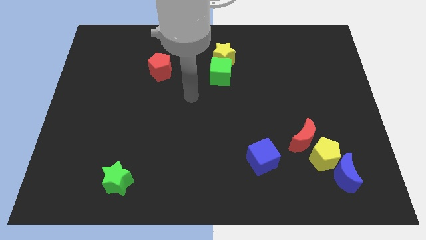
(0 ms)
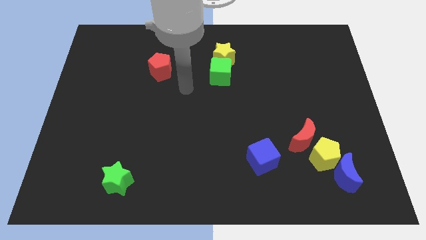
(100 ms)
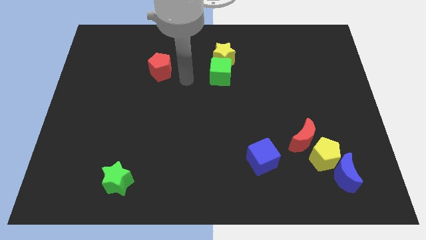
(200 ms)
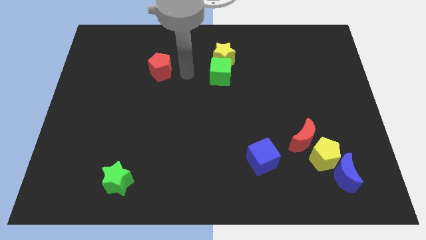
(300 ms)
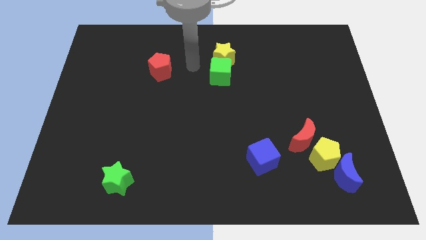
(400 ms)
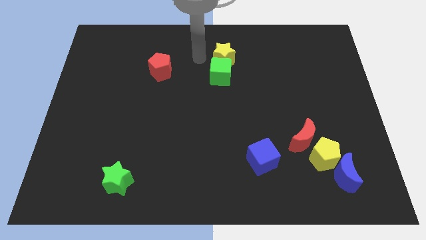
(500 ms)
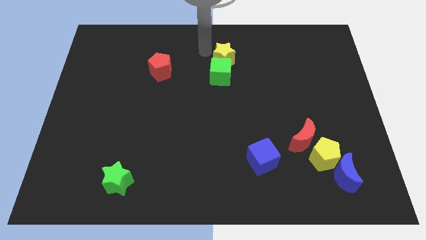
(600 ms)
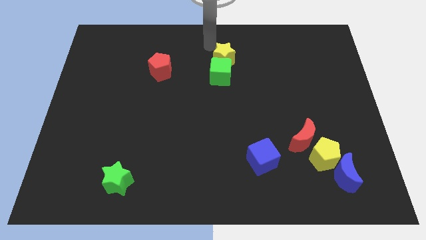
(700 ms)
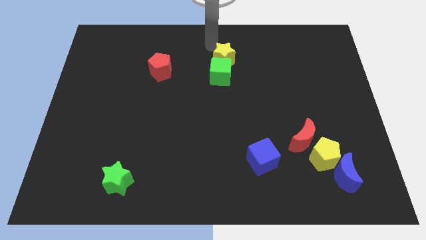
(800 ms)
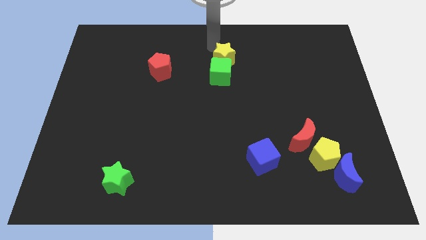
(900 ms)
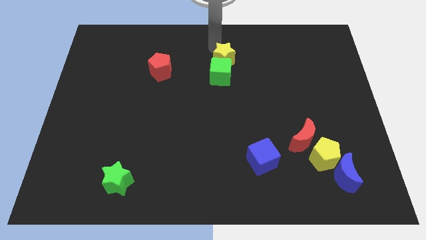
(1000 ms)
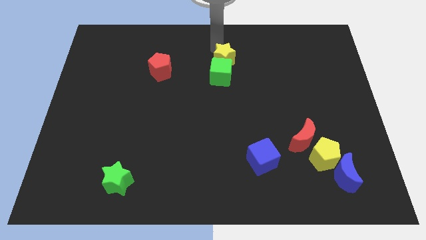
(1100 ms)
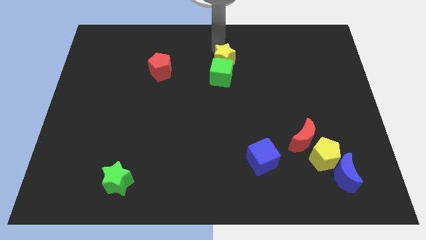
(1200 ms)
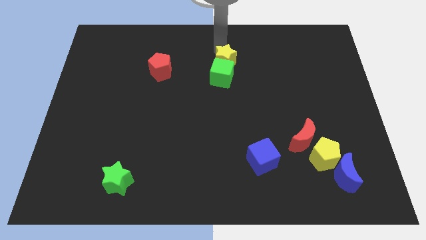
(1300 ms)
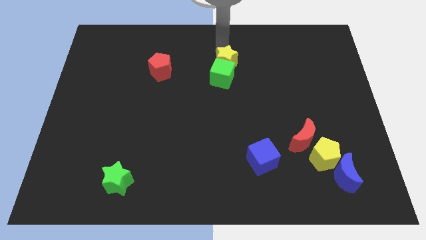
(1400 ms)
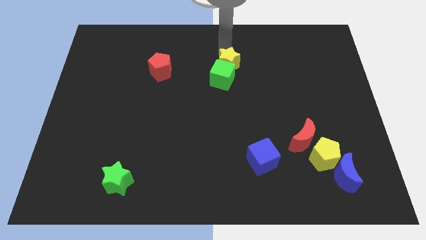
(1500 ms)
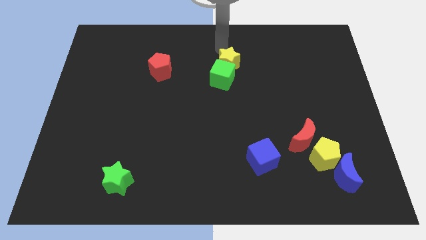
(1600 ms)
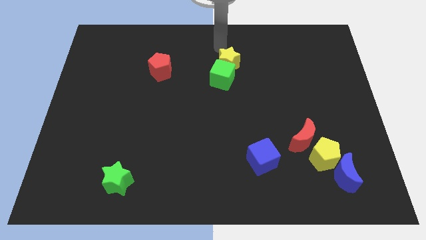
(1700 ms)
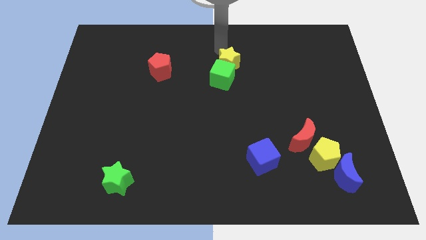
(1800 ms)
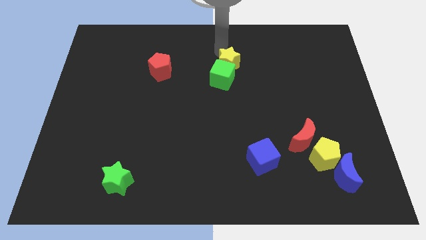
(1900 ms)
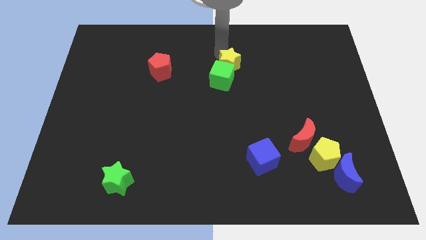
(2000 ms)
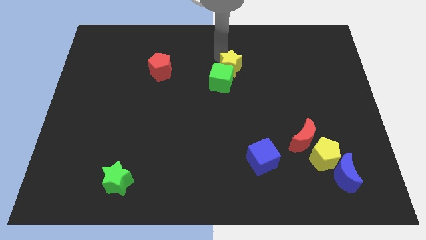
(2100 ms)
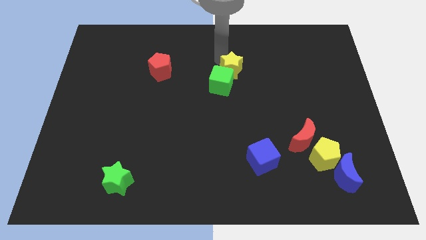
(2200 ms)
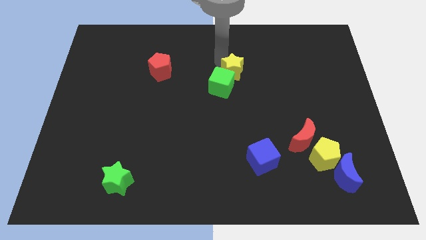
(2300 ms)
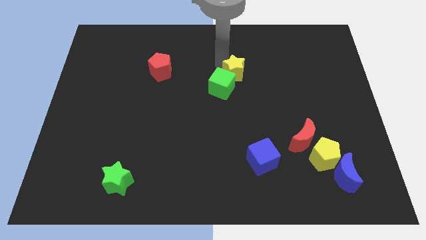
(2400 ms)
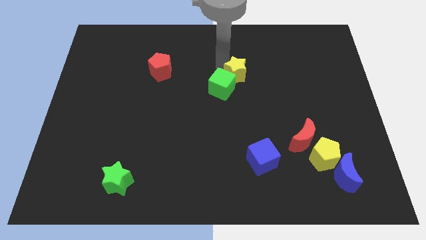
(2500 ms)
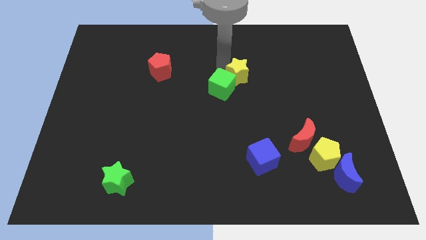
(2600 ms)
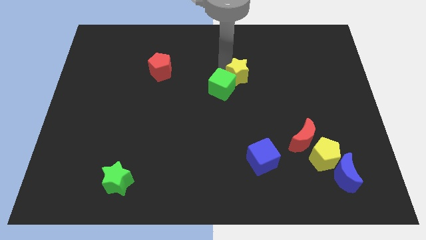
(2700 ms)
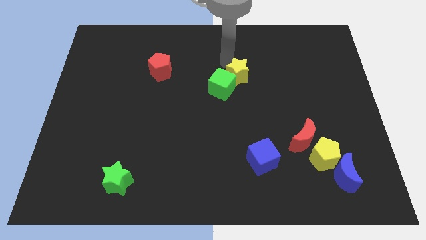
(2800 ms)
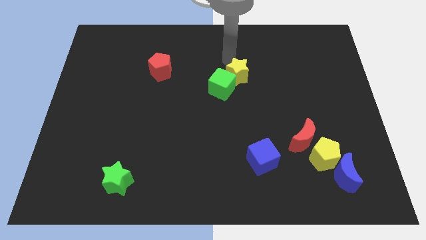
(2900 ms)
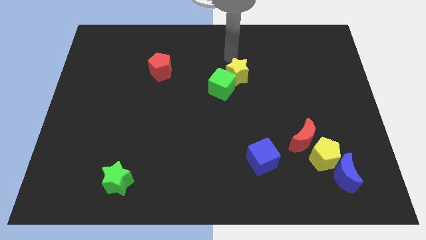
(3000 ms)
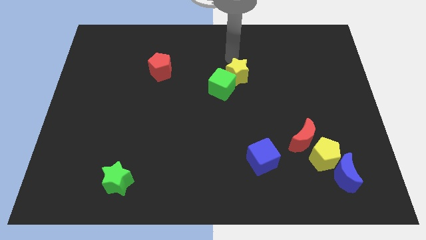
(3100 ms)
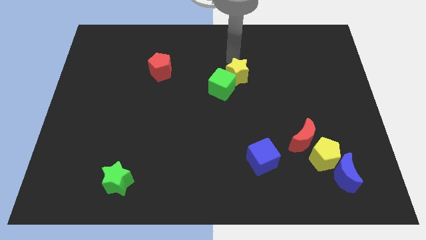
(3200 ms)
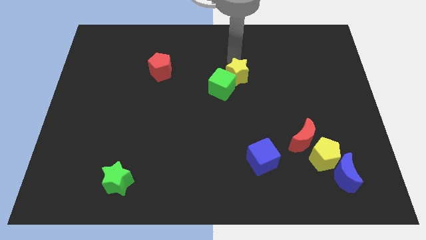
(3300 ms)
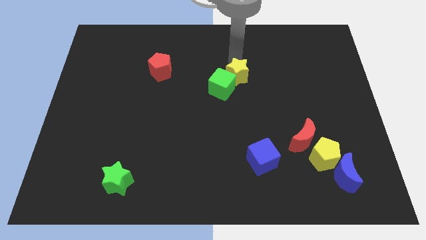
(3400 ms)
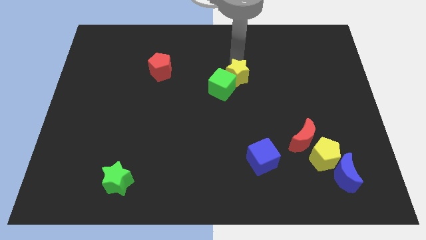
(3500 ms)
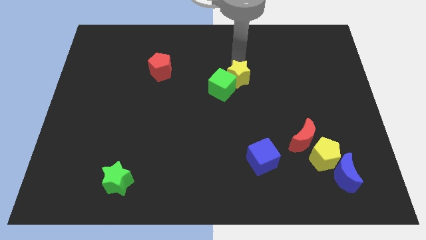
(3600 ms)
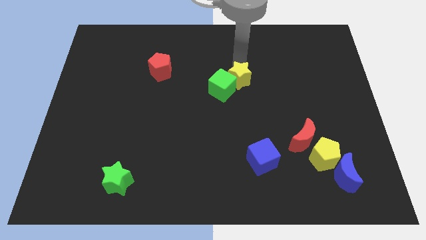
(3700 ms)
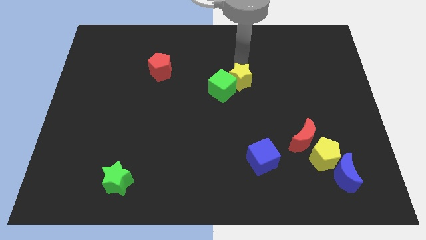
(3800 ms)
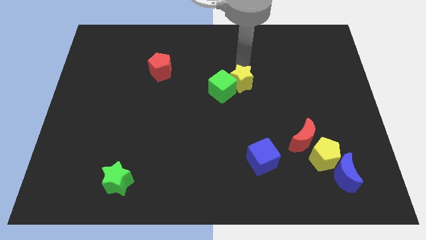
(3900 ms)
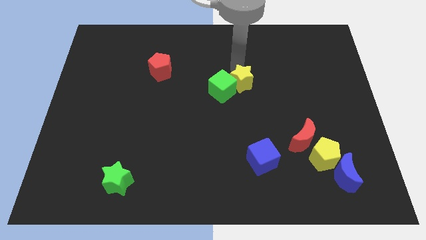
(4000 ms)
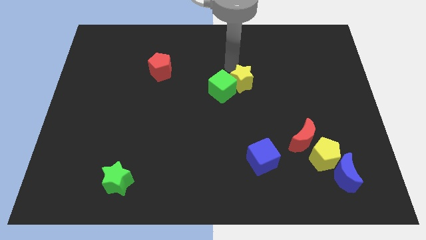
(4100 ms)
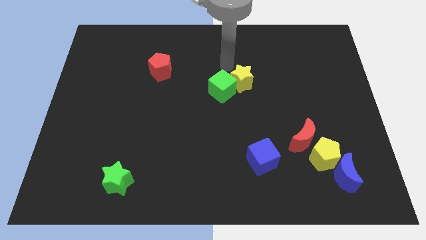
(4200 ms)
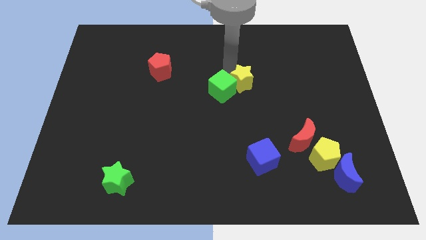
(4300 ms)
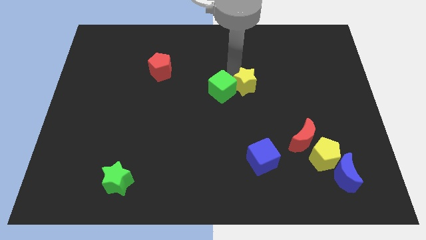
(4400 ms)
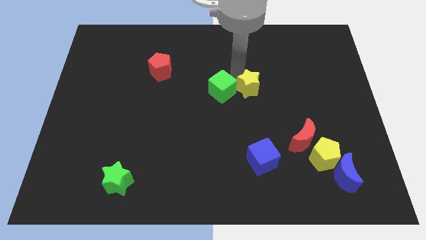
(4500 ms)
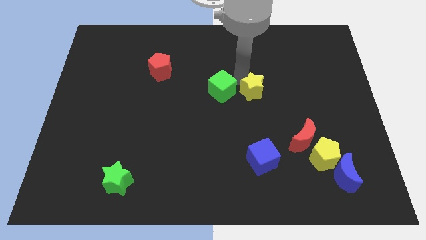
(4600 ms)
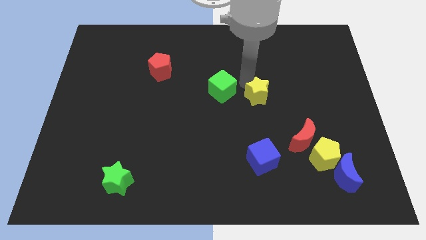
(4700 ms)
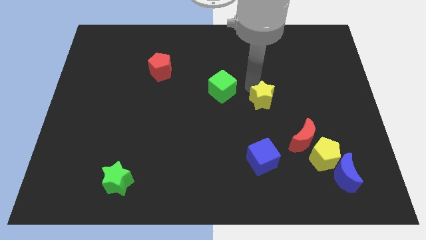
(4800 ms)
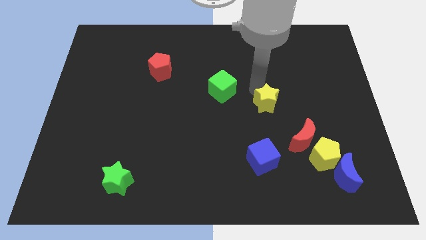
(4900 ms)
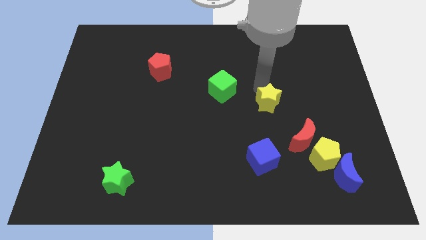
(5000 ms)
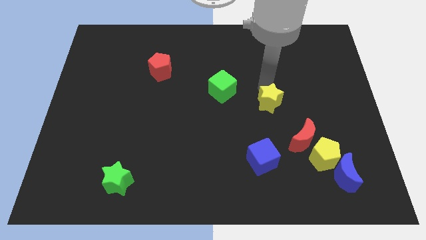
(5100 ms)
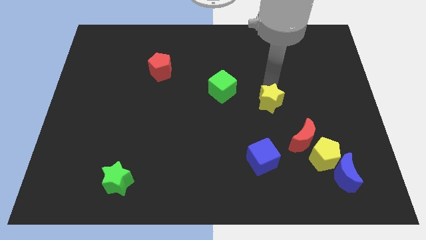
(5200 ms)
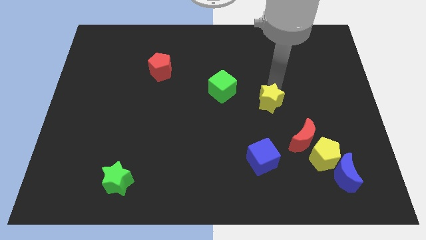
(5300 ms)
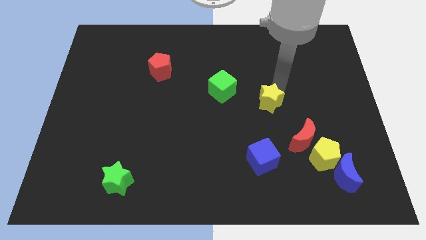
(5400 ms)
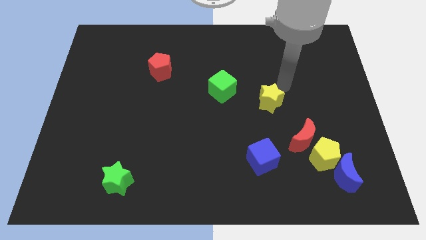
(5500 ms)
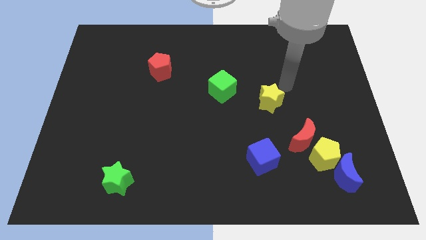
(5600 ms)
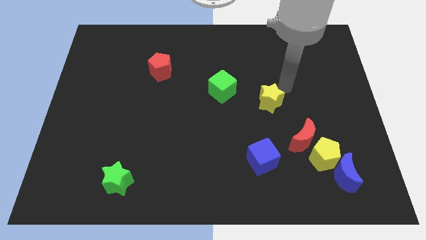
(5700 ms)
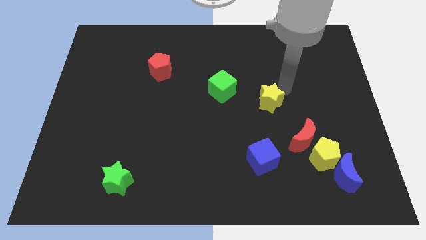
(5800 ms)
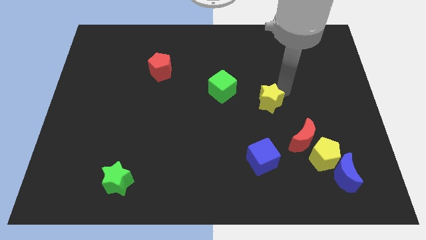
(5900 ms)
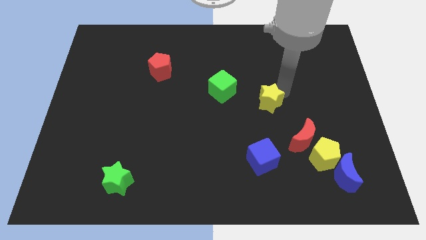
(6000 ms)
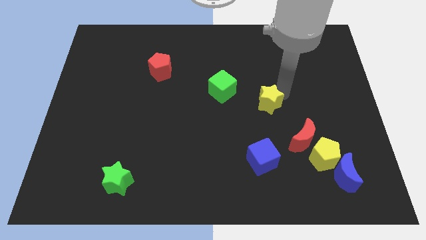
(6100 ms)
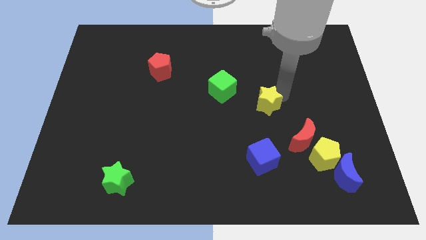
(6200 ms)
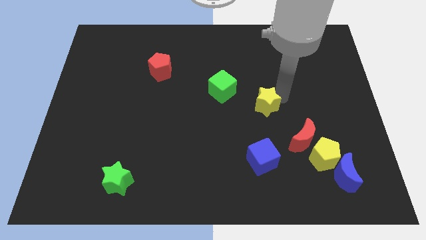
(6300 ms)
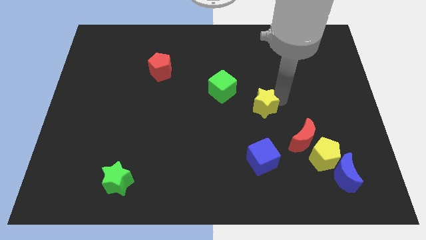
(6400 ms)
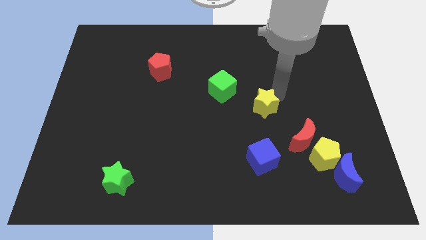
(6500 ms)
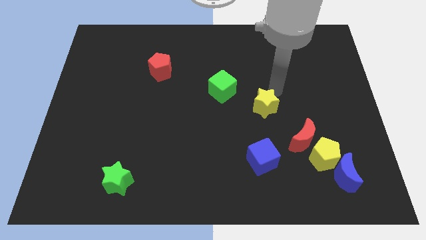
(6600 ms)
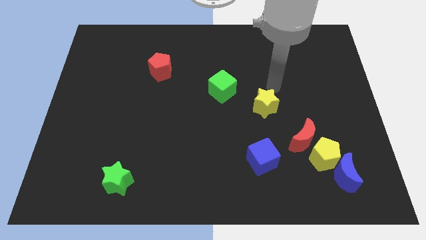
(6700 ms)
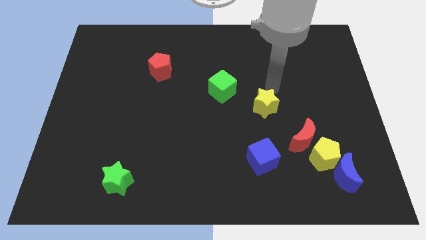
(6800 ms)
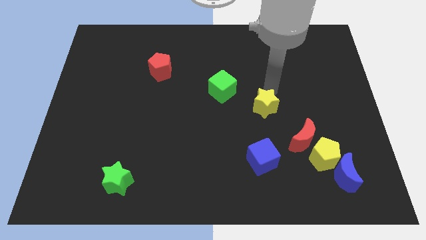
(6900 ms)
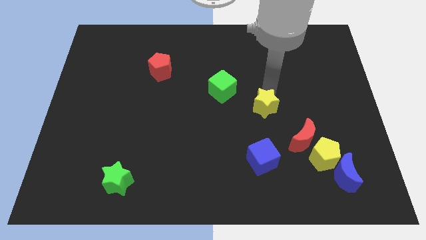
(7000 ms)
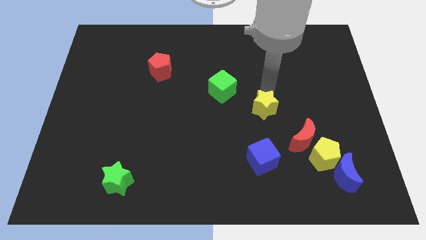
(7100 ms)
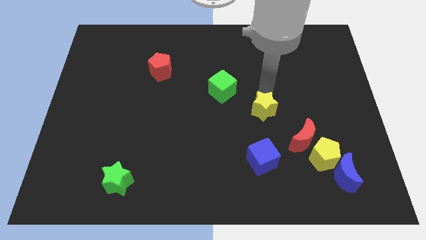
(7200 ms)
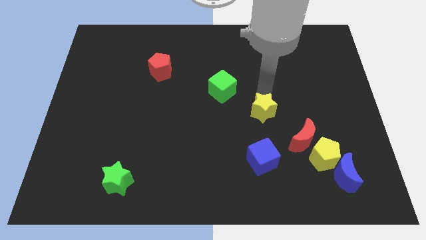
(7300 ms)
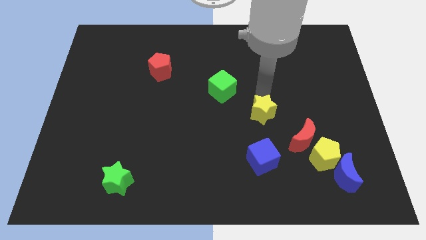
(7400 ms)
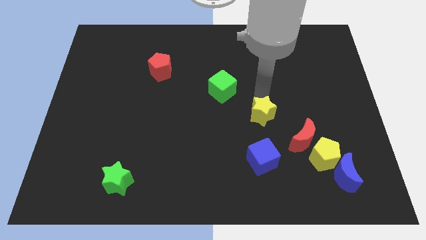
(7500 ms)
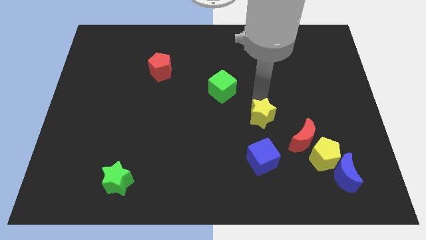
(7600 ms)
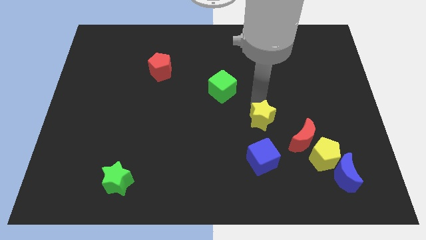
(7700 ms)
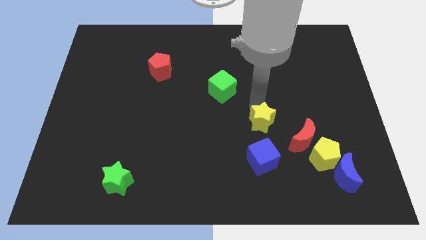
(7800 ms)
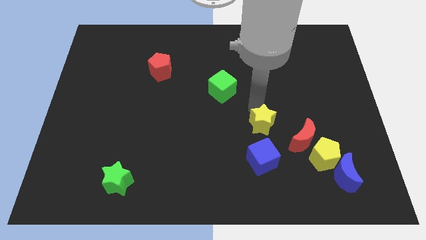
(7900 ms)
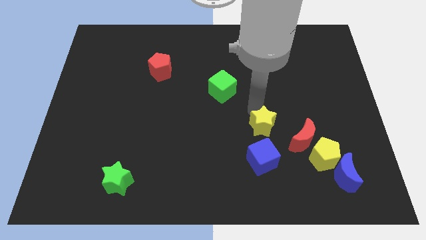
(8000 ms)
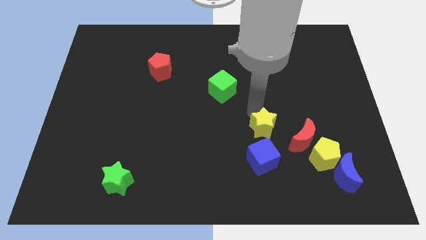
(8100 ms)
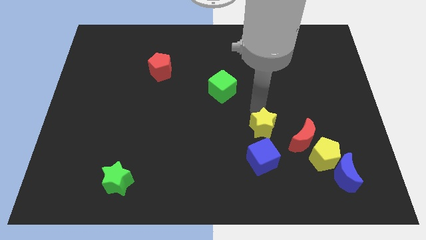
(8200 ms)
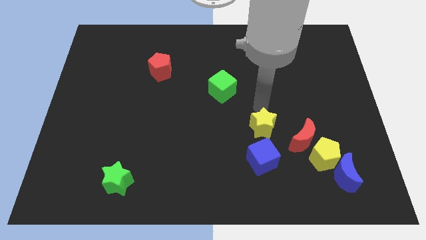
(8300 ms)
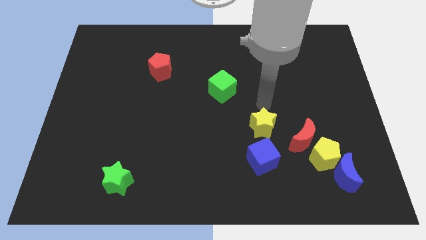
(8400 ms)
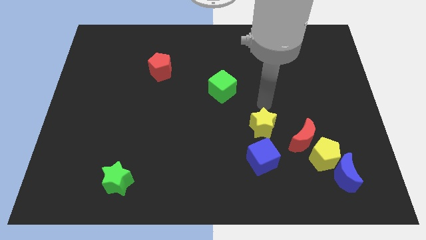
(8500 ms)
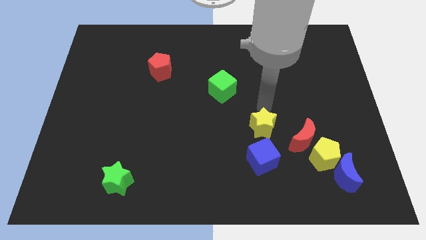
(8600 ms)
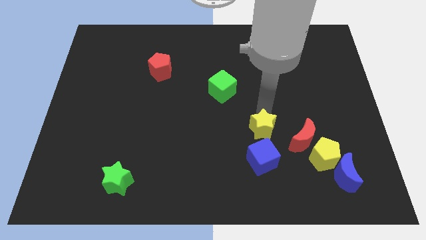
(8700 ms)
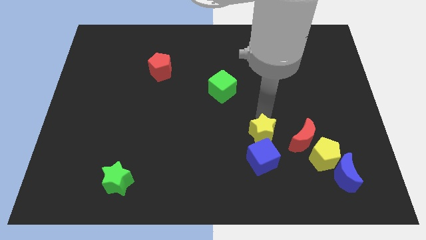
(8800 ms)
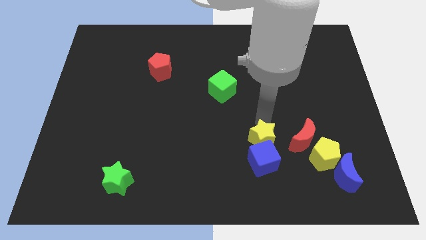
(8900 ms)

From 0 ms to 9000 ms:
push the yellow star to the blue cube
